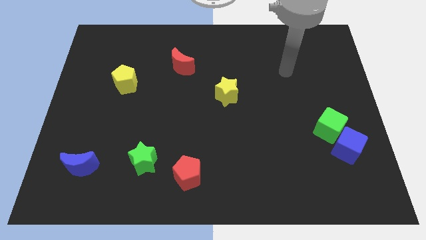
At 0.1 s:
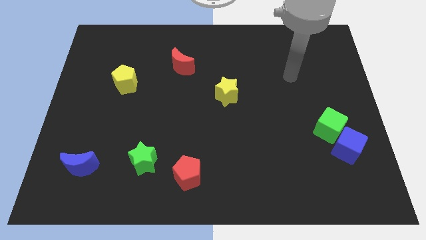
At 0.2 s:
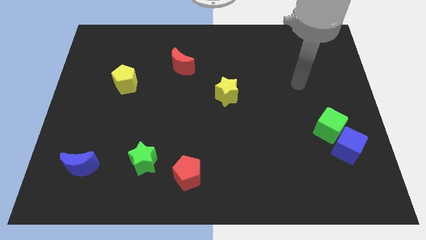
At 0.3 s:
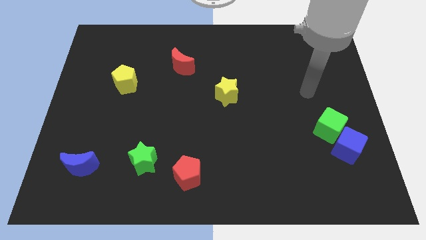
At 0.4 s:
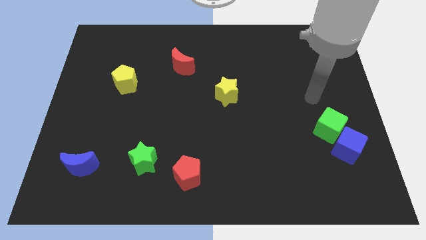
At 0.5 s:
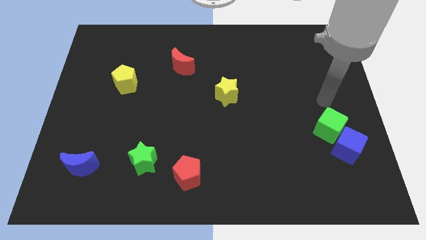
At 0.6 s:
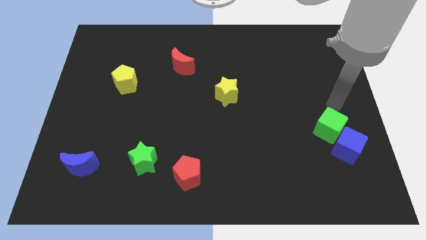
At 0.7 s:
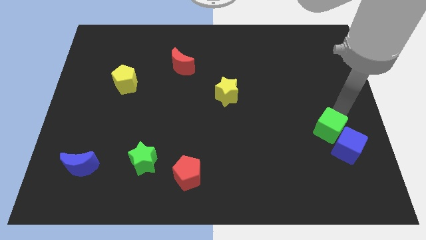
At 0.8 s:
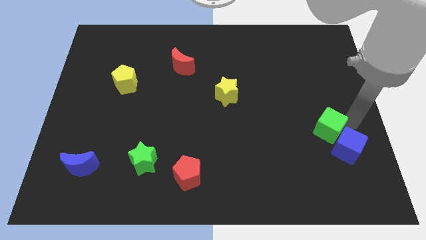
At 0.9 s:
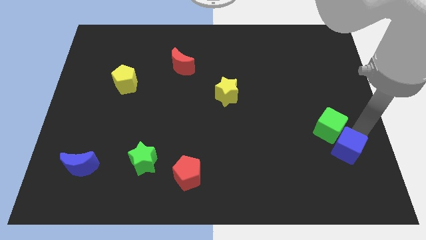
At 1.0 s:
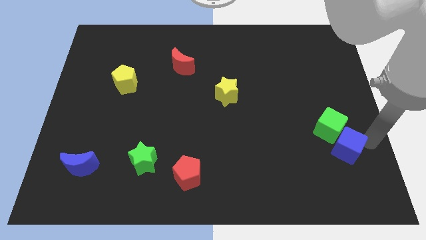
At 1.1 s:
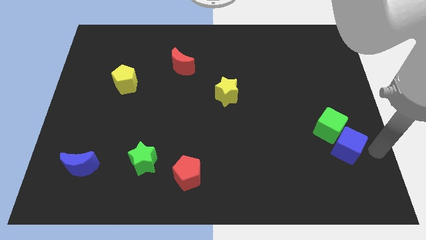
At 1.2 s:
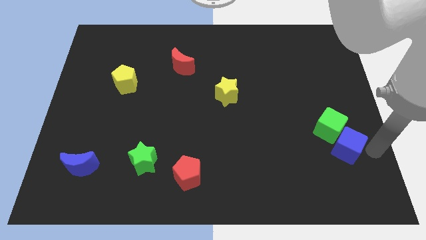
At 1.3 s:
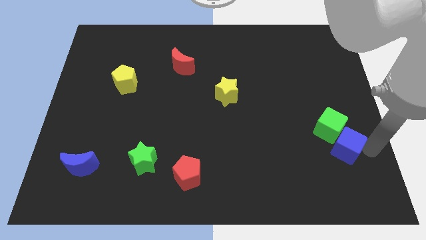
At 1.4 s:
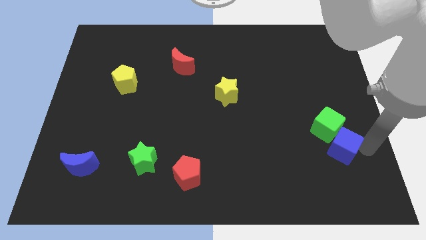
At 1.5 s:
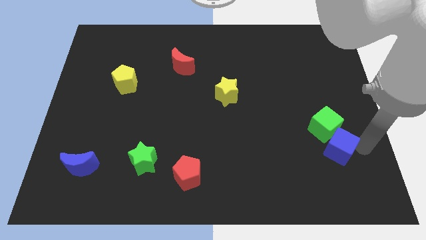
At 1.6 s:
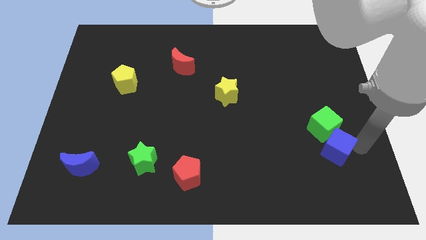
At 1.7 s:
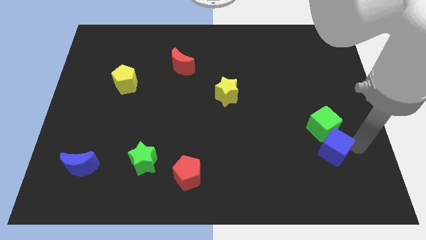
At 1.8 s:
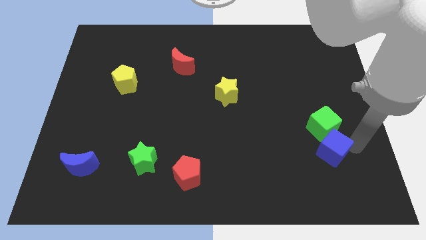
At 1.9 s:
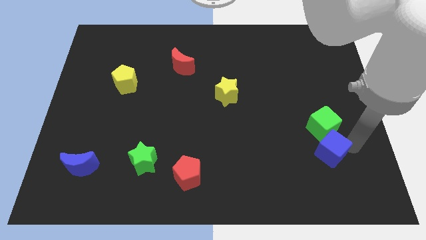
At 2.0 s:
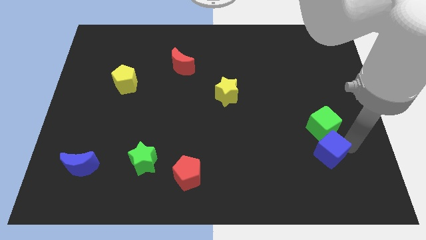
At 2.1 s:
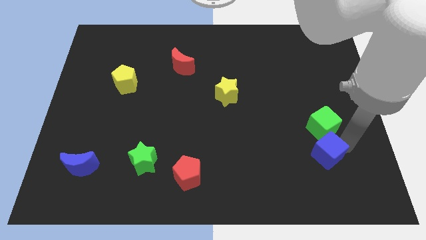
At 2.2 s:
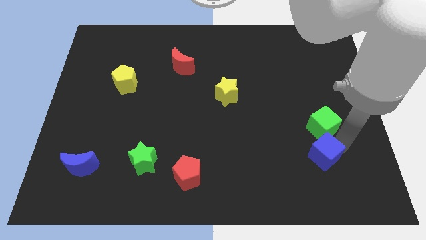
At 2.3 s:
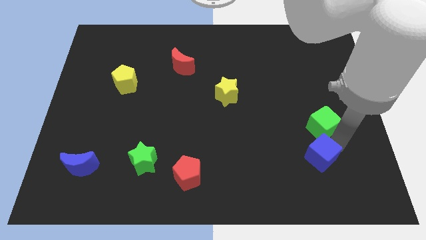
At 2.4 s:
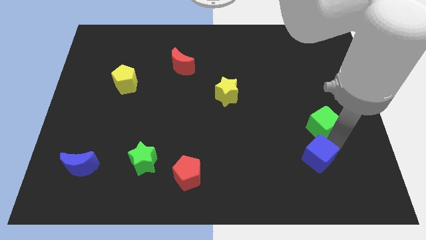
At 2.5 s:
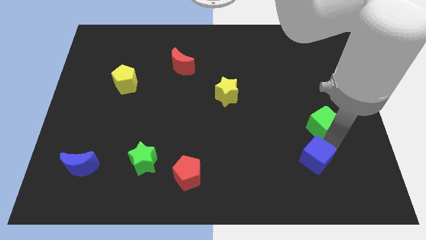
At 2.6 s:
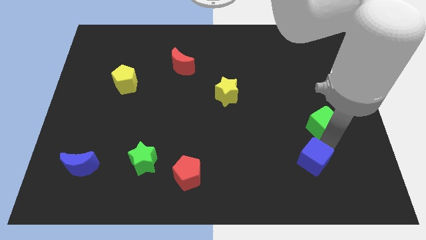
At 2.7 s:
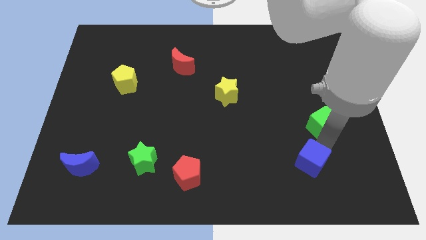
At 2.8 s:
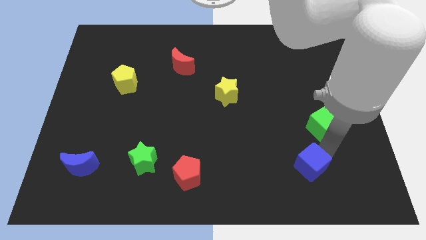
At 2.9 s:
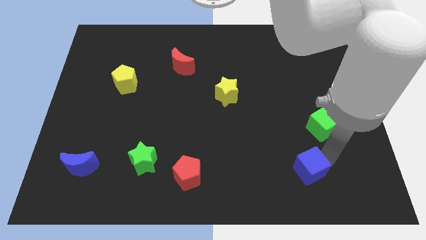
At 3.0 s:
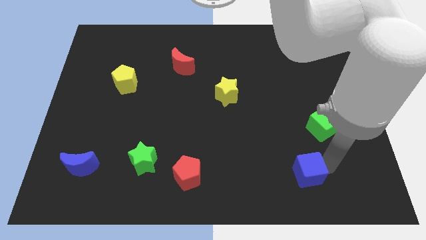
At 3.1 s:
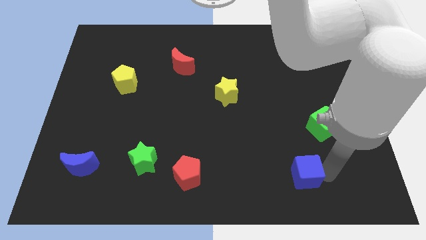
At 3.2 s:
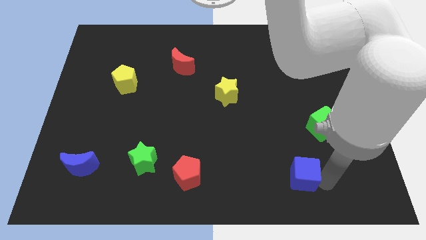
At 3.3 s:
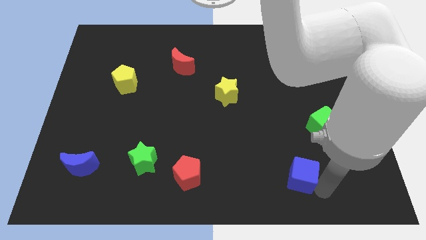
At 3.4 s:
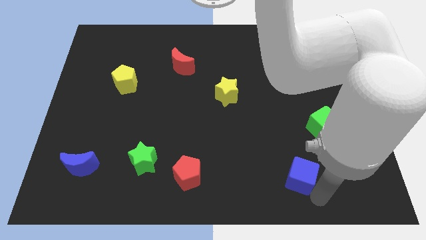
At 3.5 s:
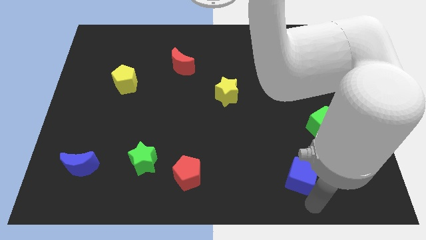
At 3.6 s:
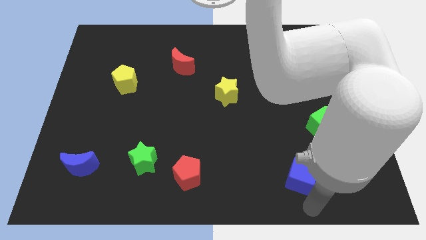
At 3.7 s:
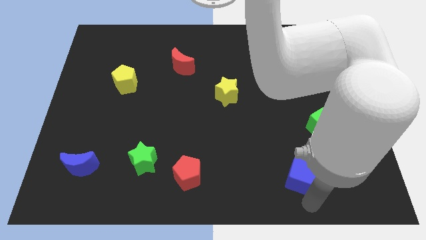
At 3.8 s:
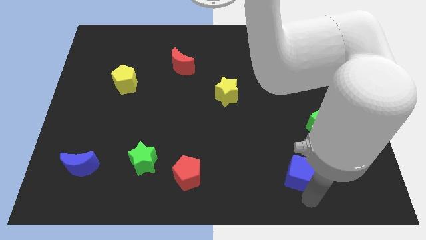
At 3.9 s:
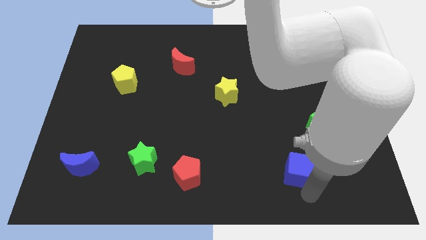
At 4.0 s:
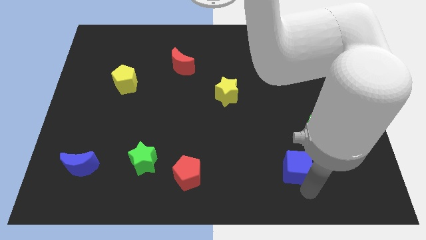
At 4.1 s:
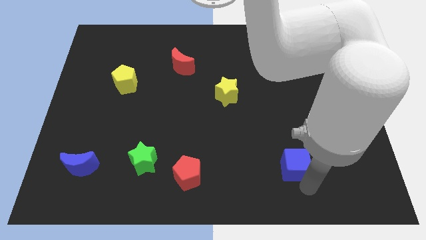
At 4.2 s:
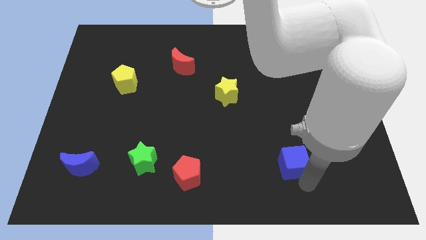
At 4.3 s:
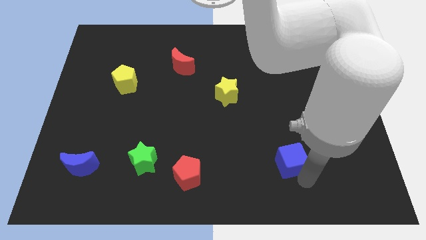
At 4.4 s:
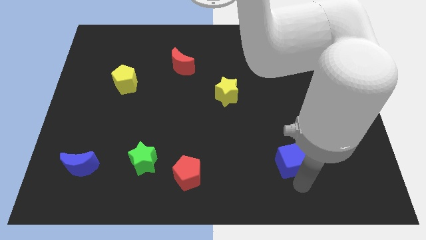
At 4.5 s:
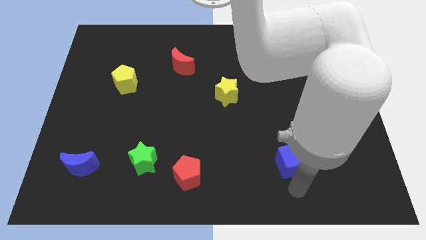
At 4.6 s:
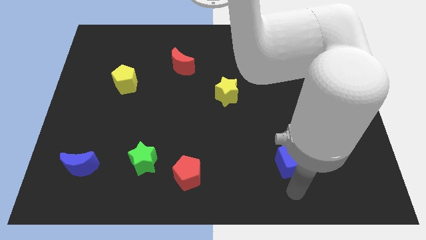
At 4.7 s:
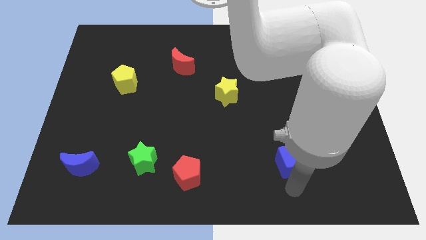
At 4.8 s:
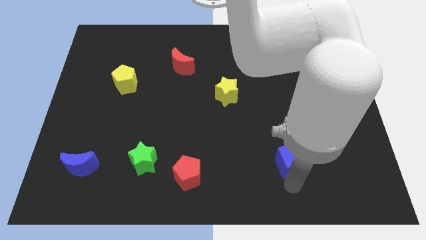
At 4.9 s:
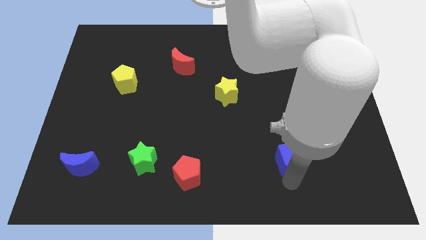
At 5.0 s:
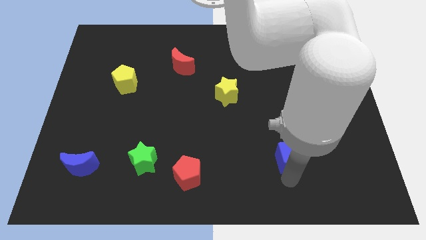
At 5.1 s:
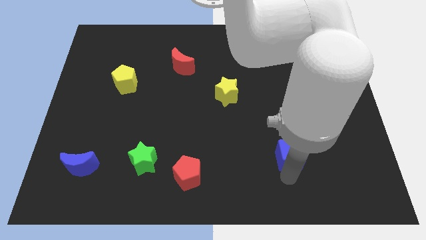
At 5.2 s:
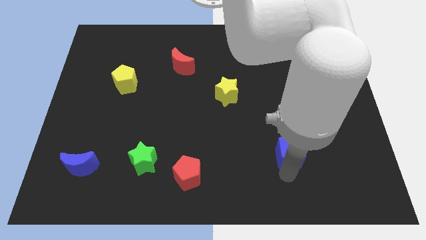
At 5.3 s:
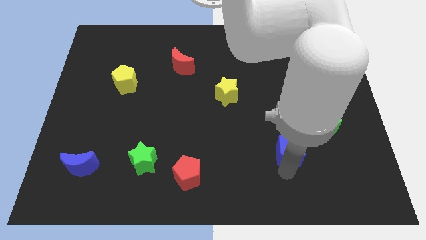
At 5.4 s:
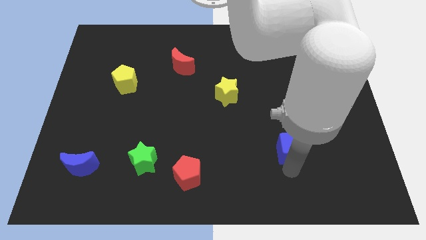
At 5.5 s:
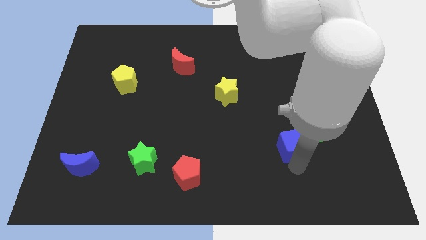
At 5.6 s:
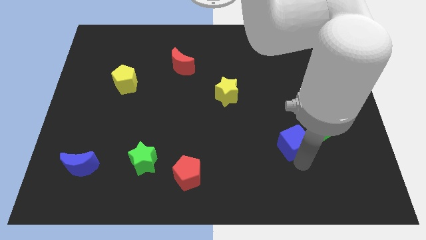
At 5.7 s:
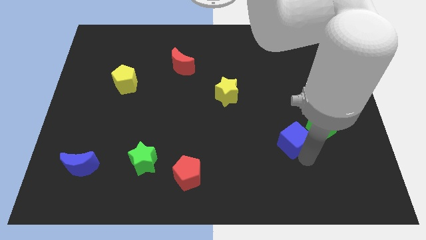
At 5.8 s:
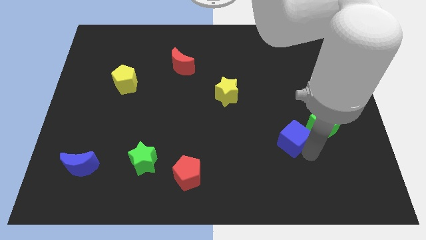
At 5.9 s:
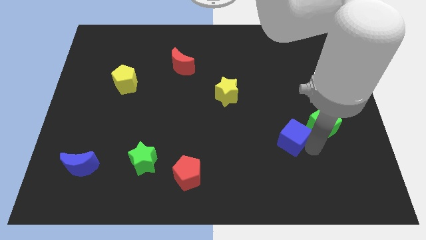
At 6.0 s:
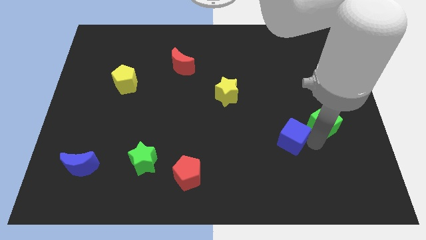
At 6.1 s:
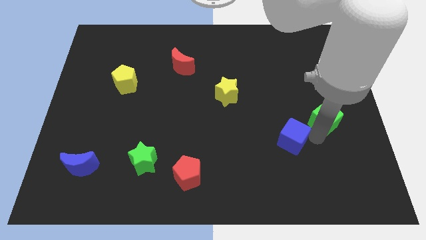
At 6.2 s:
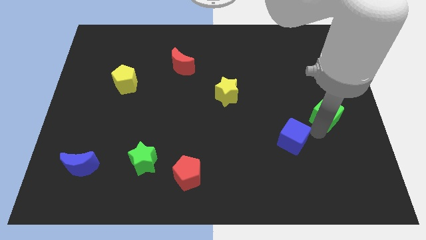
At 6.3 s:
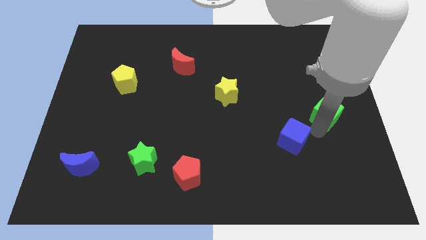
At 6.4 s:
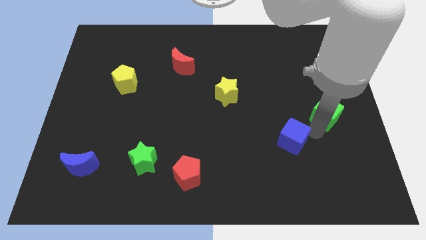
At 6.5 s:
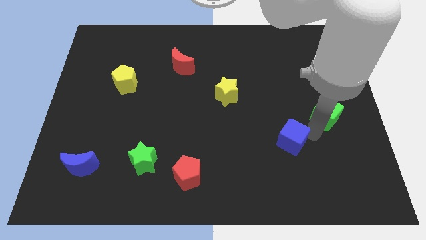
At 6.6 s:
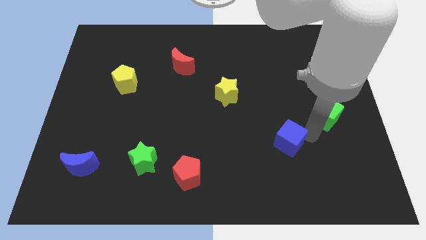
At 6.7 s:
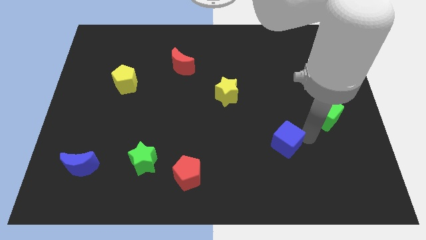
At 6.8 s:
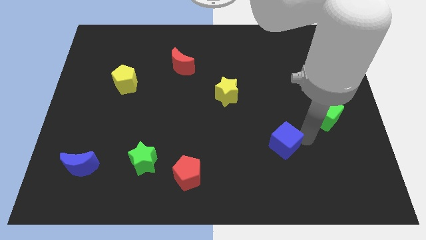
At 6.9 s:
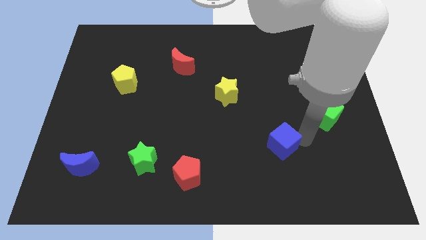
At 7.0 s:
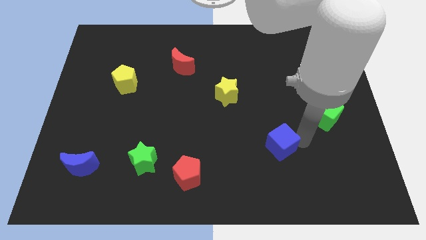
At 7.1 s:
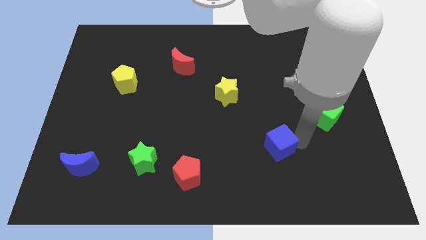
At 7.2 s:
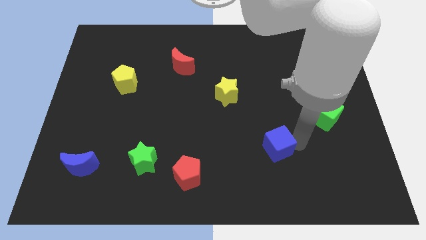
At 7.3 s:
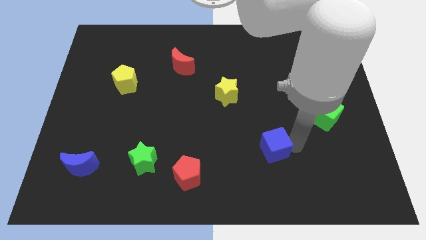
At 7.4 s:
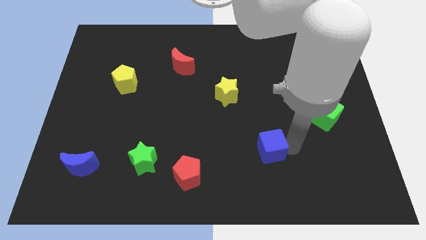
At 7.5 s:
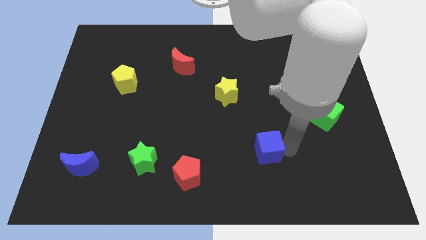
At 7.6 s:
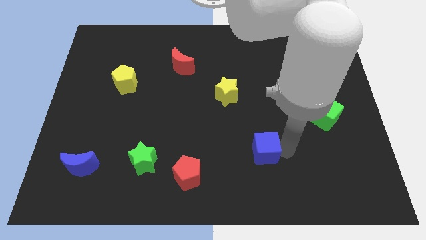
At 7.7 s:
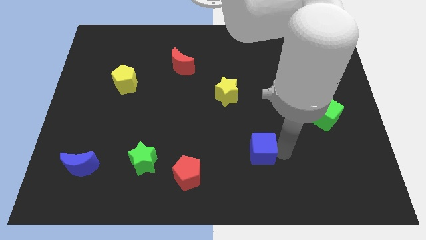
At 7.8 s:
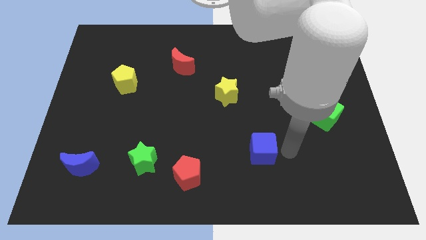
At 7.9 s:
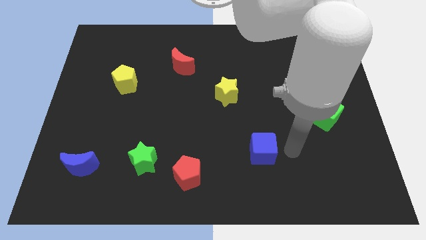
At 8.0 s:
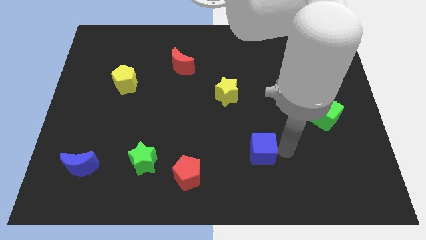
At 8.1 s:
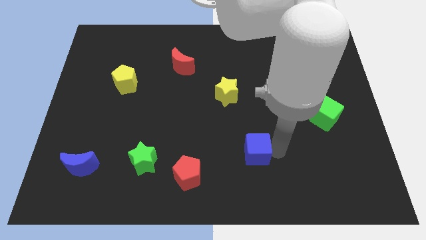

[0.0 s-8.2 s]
push the blue cube left

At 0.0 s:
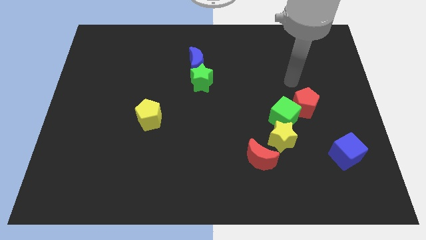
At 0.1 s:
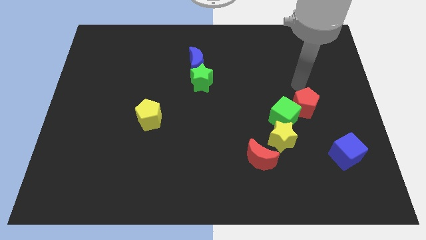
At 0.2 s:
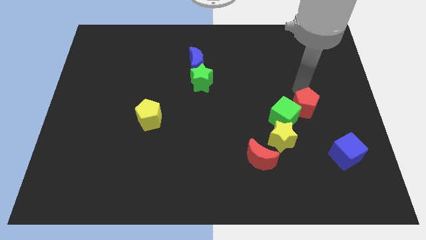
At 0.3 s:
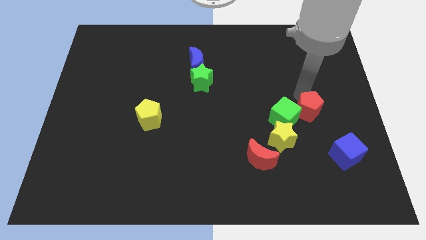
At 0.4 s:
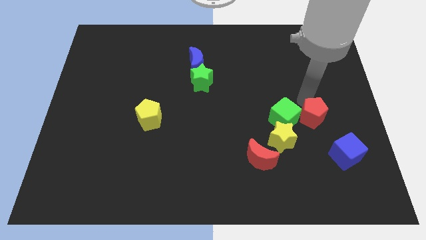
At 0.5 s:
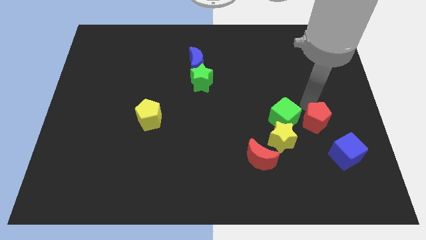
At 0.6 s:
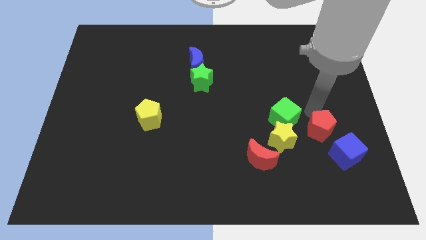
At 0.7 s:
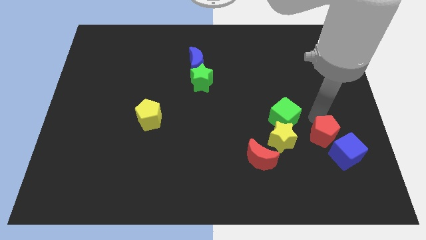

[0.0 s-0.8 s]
slightly slide the red pentagon down
